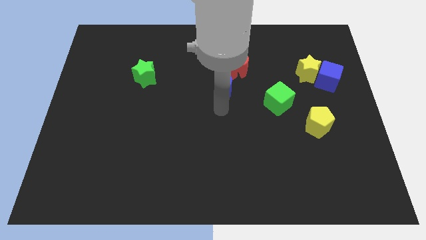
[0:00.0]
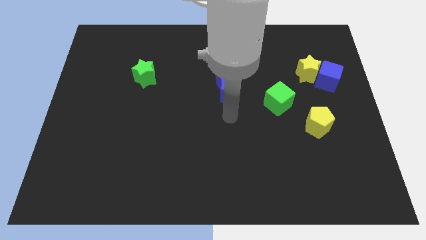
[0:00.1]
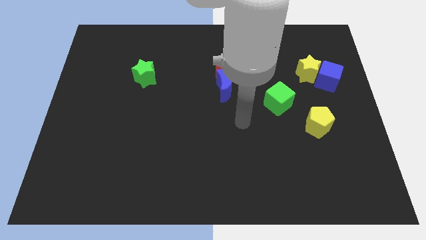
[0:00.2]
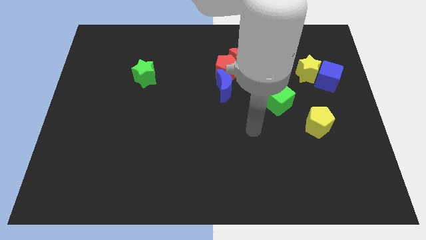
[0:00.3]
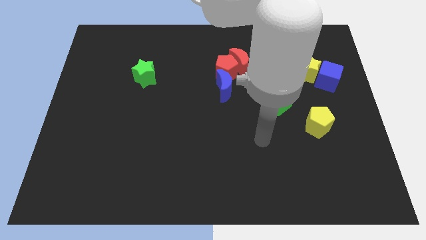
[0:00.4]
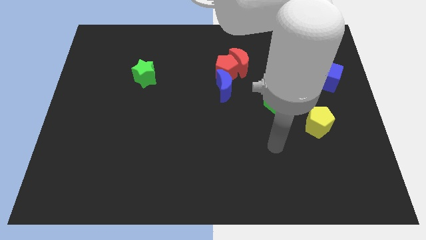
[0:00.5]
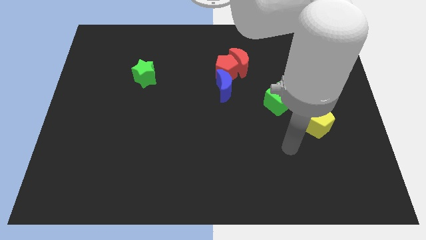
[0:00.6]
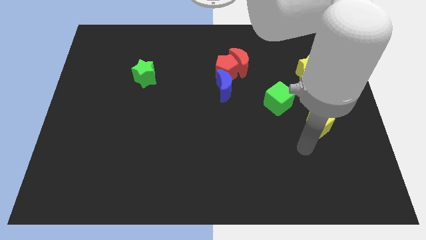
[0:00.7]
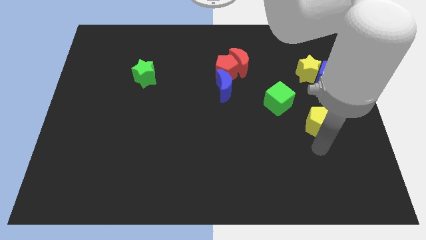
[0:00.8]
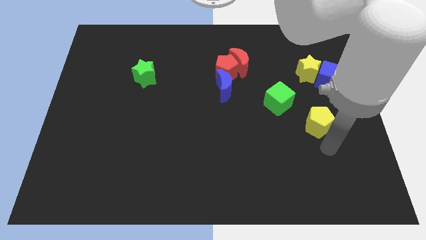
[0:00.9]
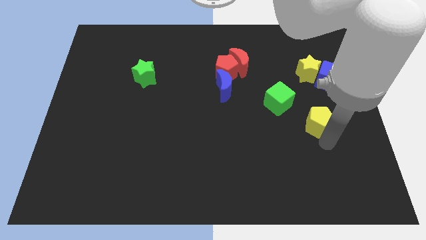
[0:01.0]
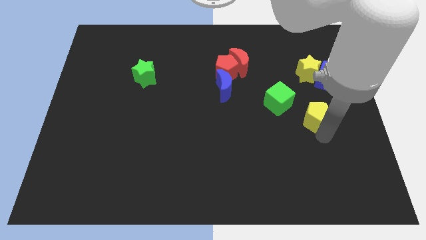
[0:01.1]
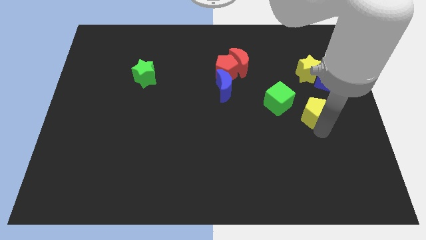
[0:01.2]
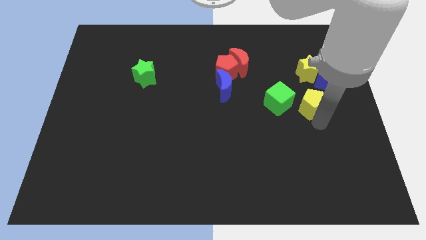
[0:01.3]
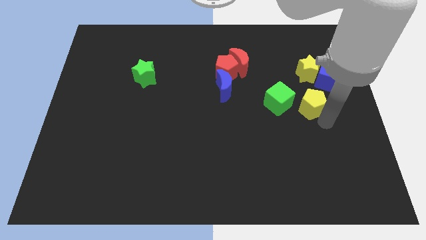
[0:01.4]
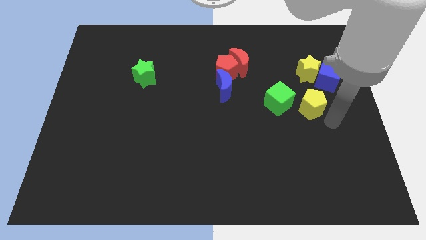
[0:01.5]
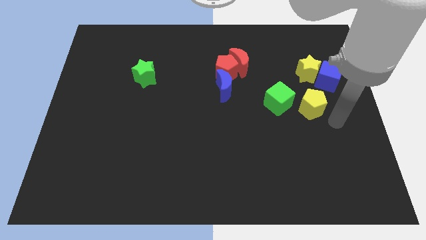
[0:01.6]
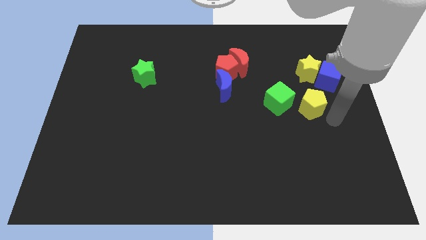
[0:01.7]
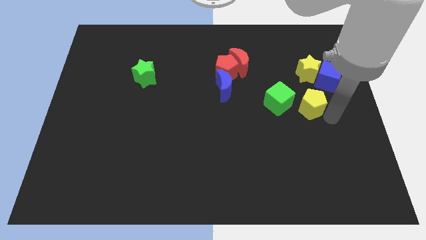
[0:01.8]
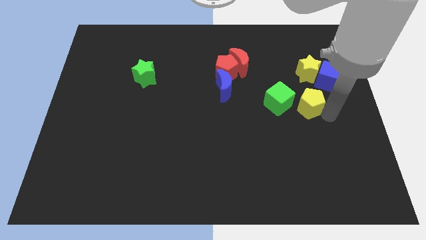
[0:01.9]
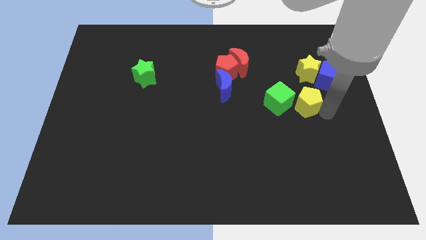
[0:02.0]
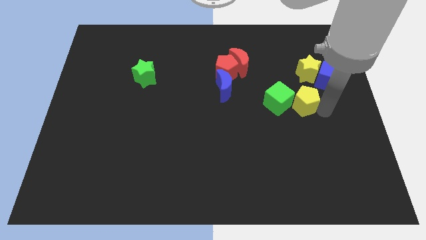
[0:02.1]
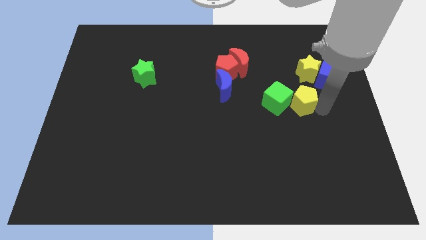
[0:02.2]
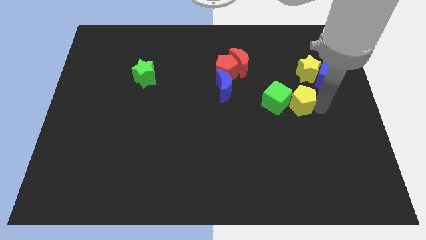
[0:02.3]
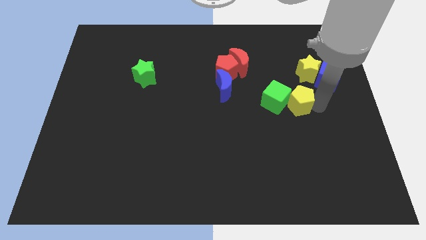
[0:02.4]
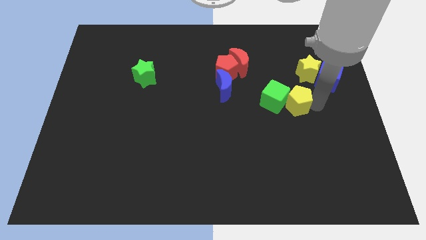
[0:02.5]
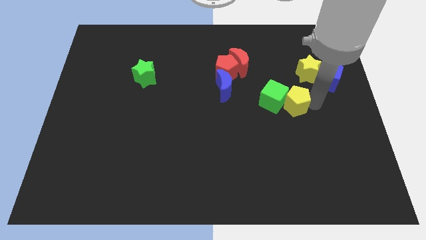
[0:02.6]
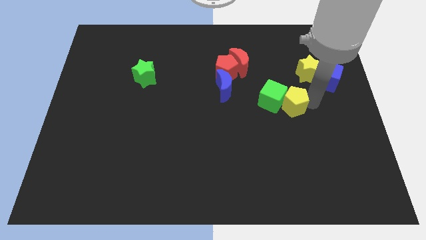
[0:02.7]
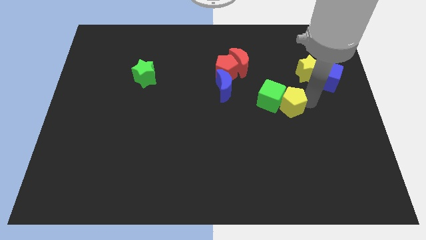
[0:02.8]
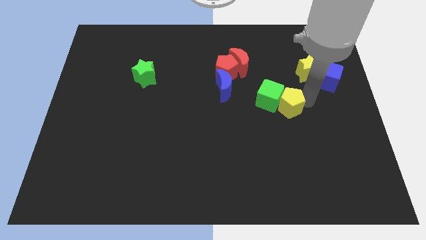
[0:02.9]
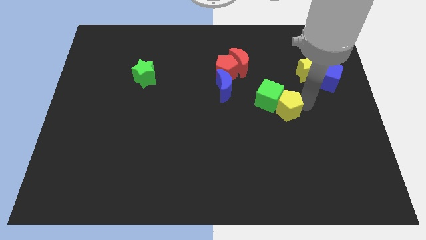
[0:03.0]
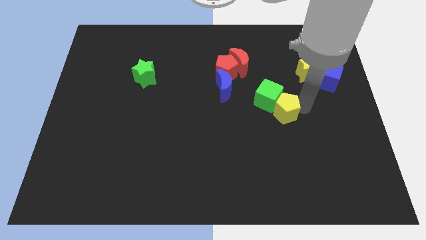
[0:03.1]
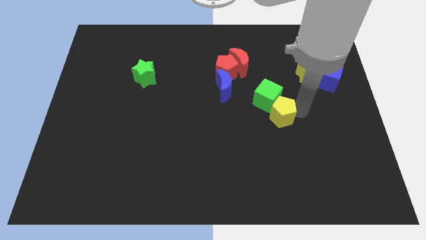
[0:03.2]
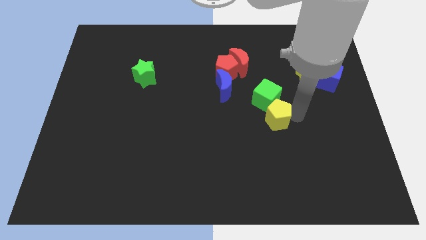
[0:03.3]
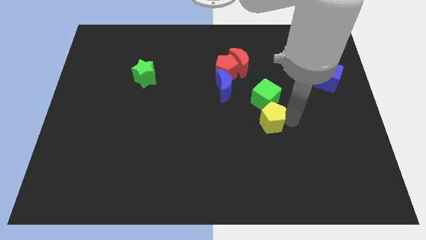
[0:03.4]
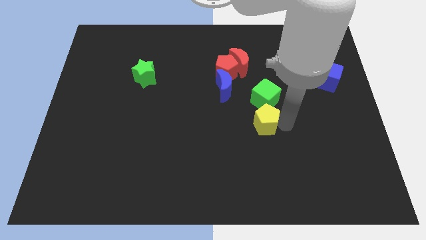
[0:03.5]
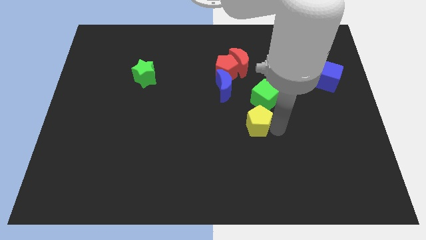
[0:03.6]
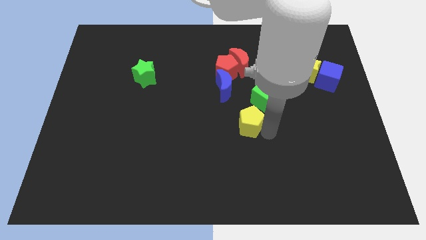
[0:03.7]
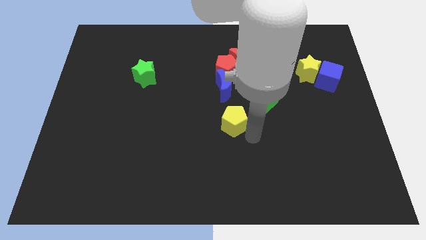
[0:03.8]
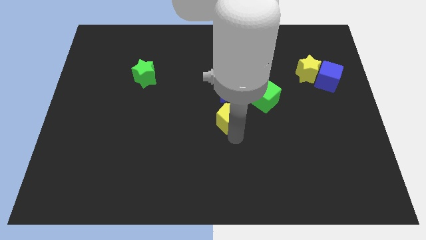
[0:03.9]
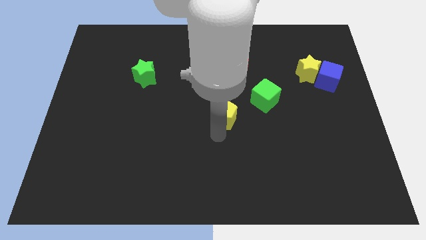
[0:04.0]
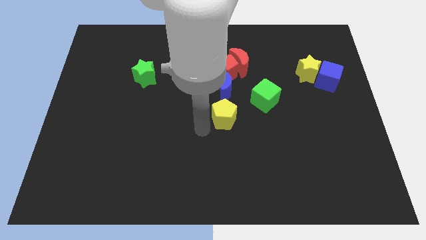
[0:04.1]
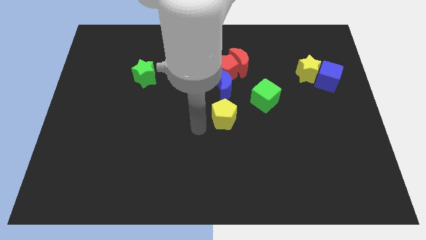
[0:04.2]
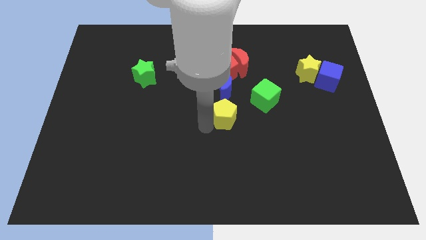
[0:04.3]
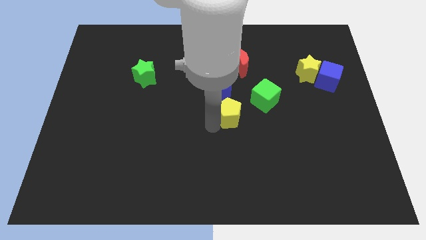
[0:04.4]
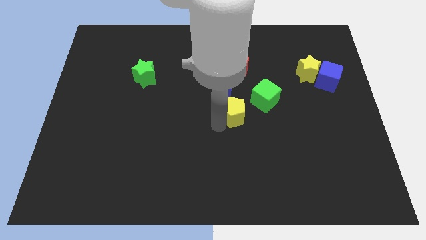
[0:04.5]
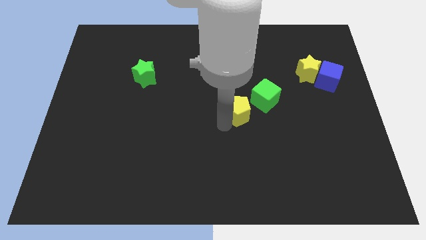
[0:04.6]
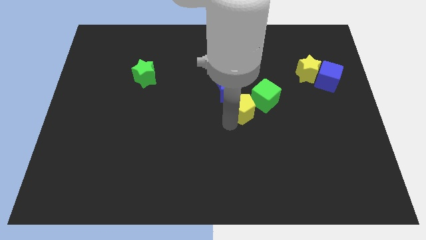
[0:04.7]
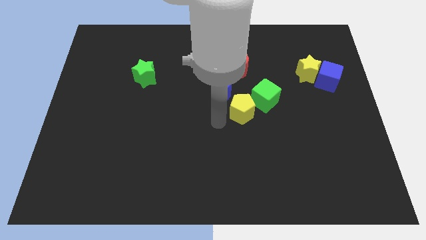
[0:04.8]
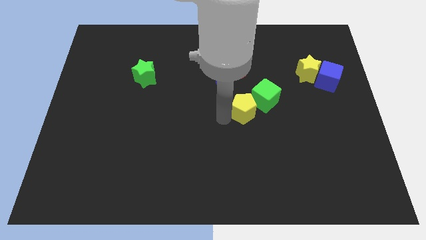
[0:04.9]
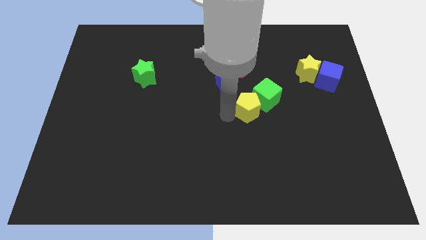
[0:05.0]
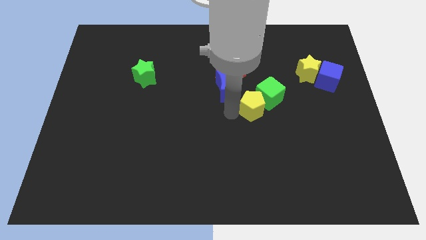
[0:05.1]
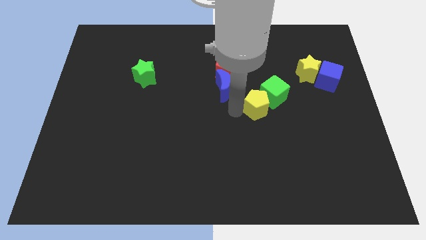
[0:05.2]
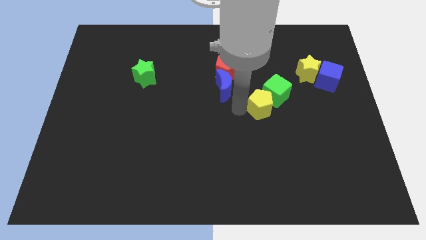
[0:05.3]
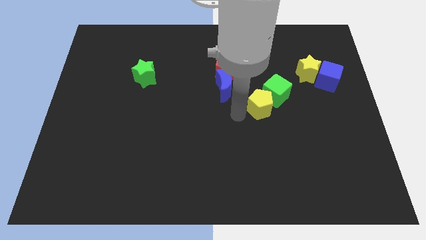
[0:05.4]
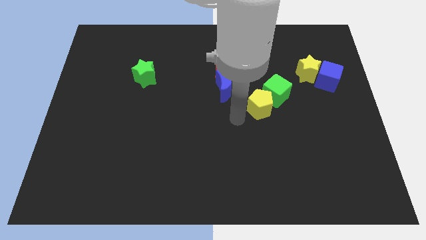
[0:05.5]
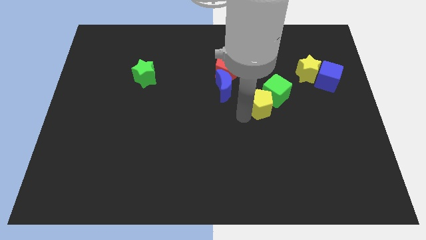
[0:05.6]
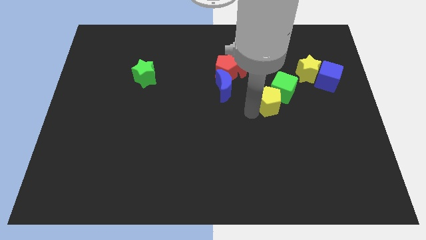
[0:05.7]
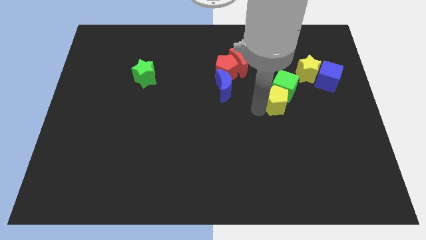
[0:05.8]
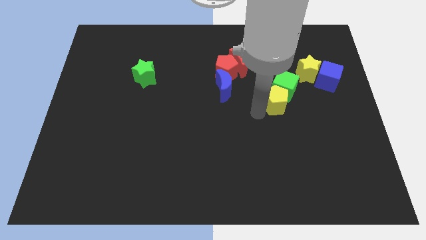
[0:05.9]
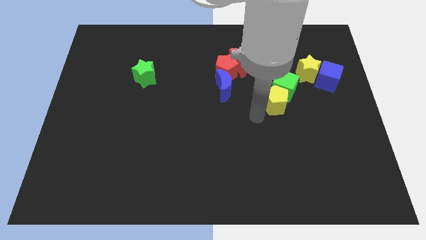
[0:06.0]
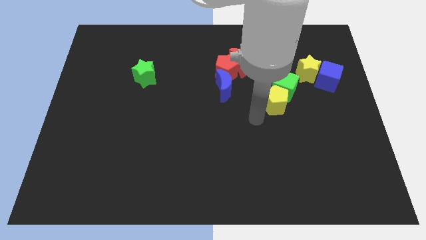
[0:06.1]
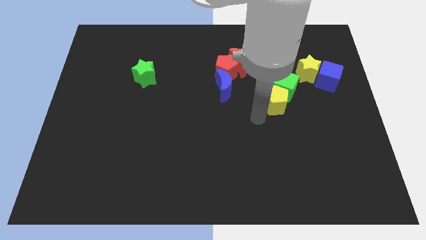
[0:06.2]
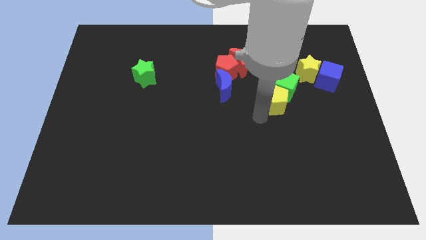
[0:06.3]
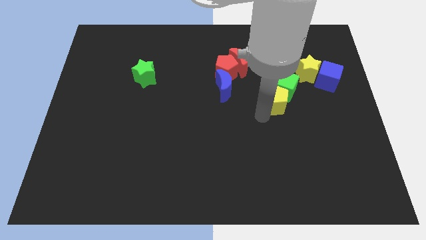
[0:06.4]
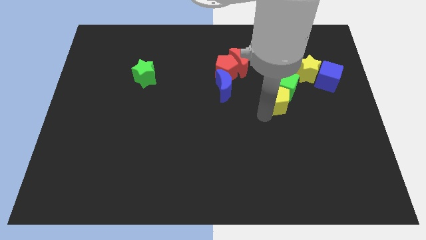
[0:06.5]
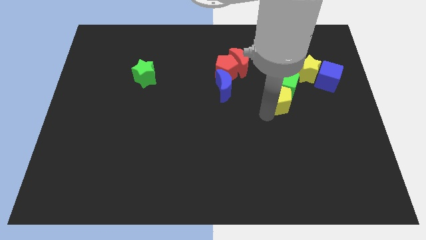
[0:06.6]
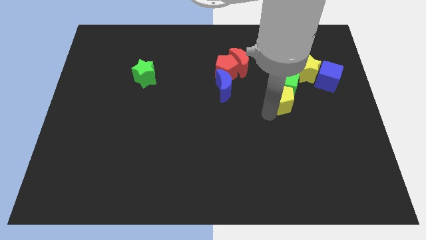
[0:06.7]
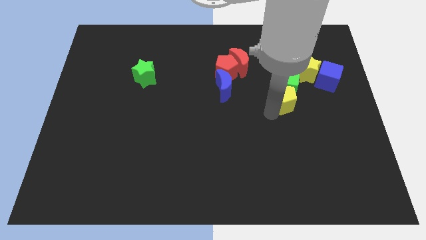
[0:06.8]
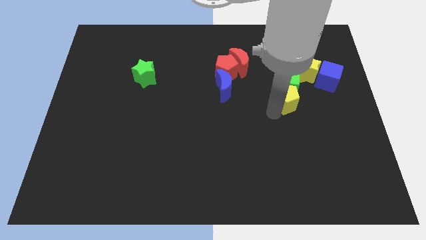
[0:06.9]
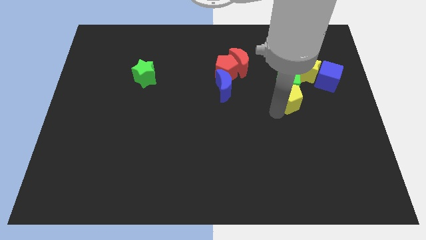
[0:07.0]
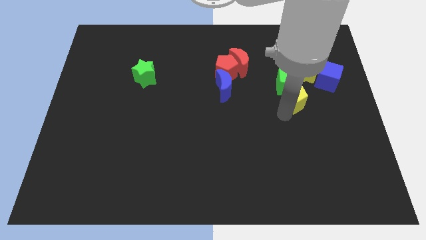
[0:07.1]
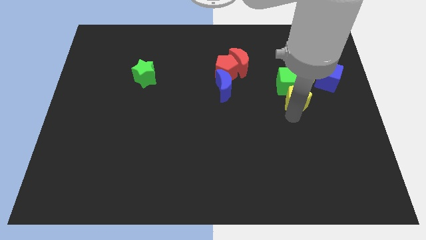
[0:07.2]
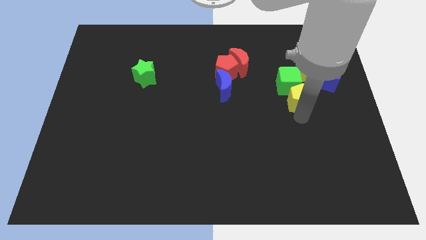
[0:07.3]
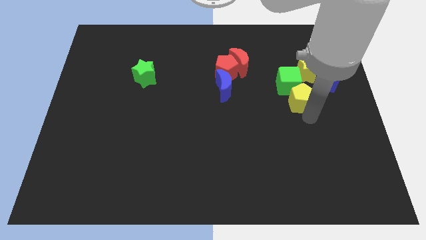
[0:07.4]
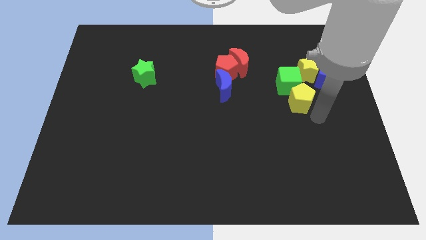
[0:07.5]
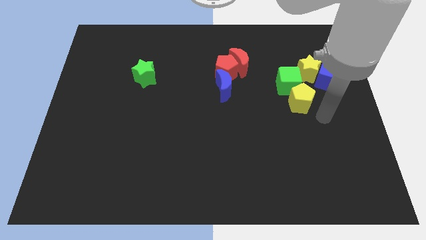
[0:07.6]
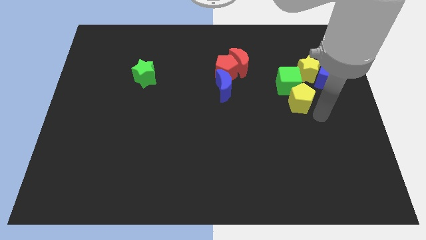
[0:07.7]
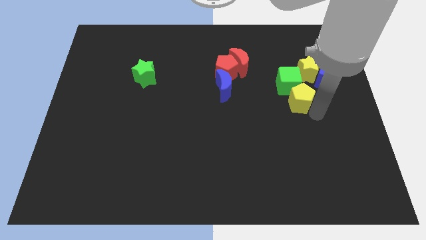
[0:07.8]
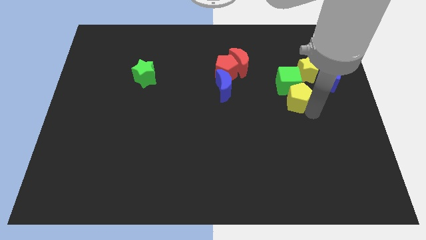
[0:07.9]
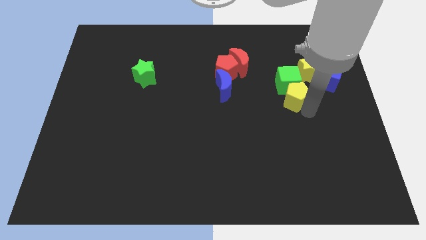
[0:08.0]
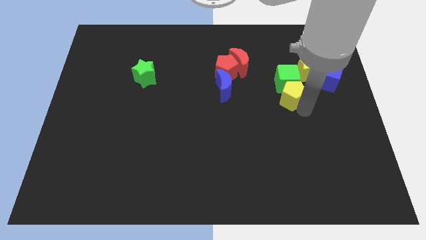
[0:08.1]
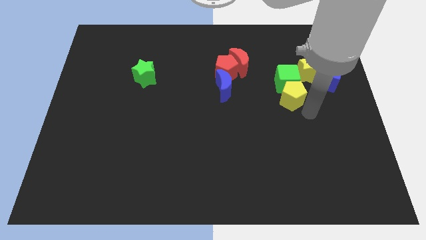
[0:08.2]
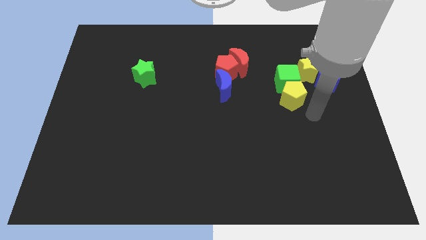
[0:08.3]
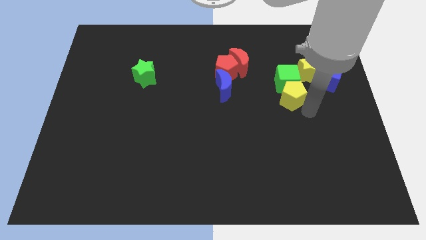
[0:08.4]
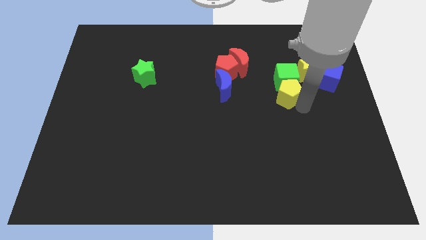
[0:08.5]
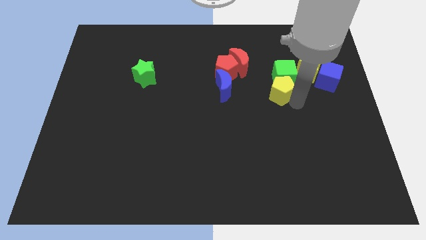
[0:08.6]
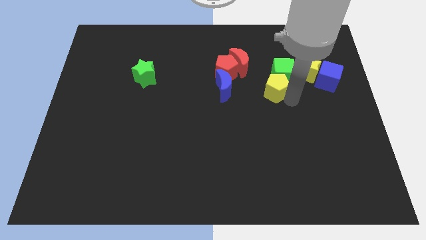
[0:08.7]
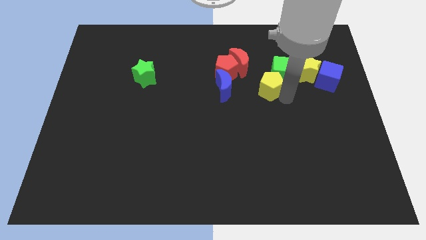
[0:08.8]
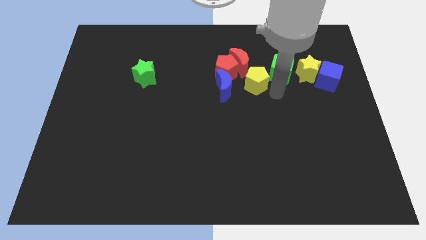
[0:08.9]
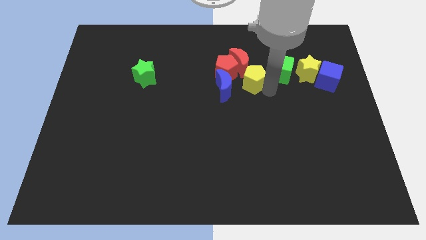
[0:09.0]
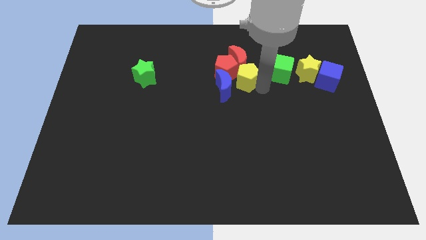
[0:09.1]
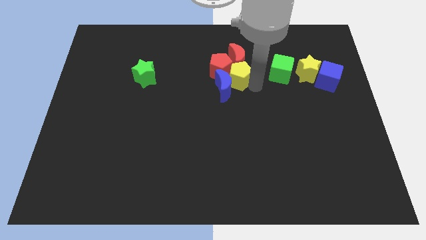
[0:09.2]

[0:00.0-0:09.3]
move the yellow pentagon to the red moon
